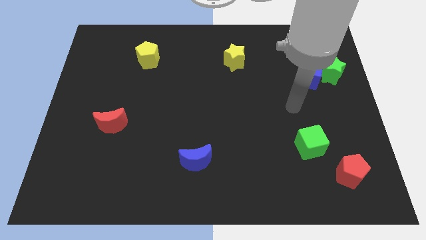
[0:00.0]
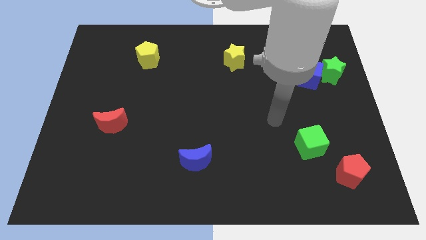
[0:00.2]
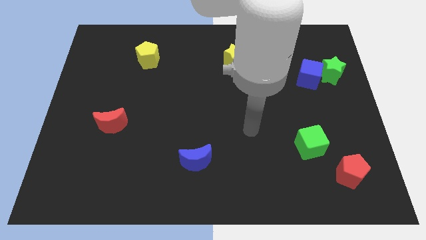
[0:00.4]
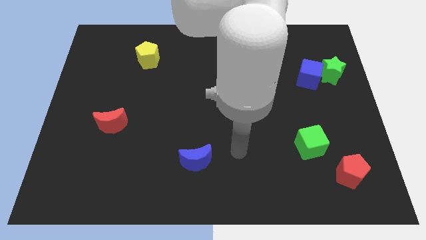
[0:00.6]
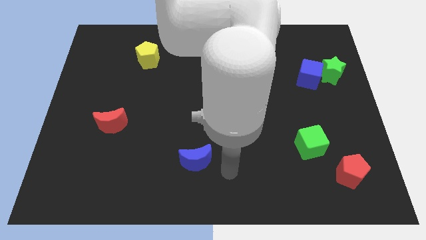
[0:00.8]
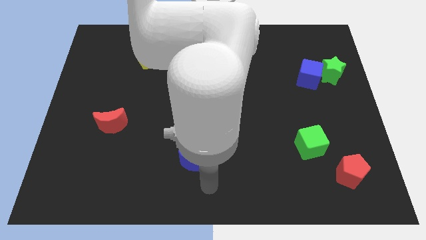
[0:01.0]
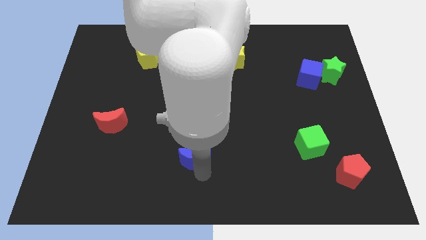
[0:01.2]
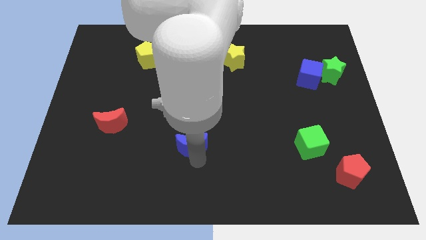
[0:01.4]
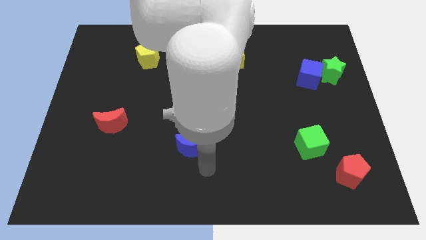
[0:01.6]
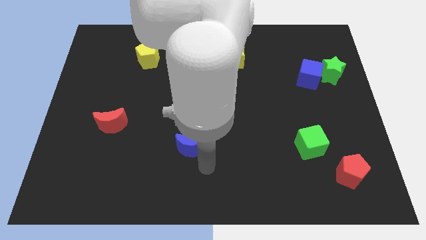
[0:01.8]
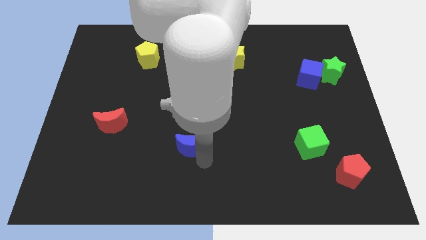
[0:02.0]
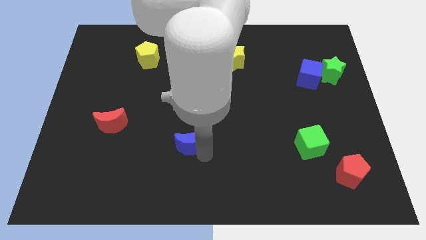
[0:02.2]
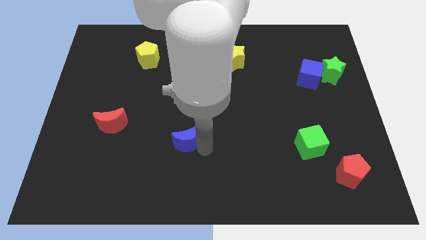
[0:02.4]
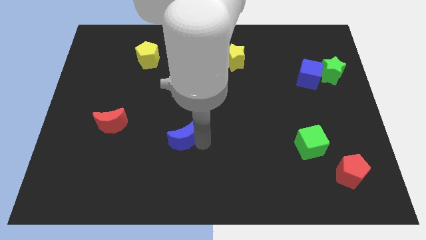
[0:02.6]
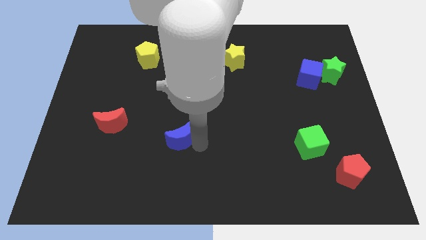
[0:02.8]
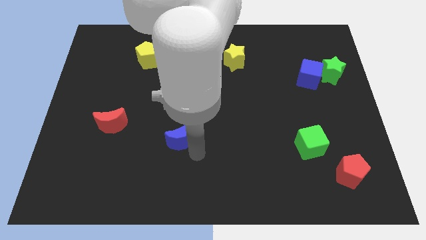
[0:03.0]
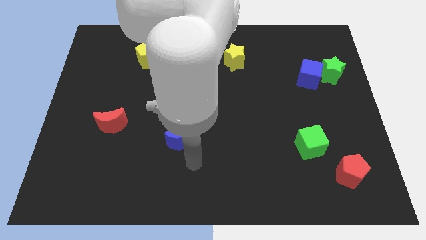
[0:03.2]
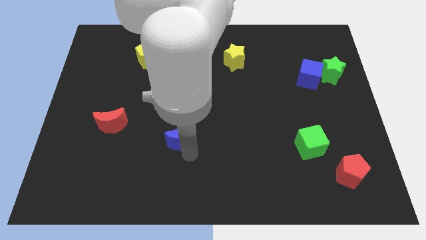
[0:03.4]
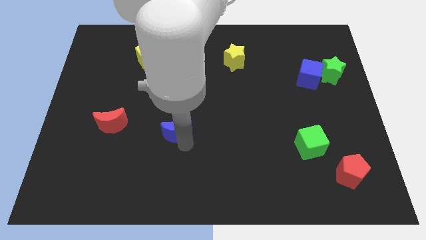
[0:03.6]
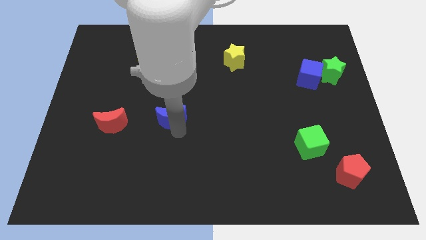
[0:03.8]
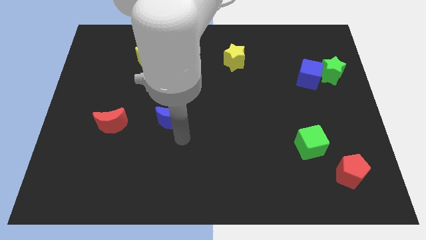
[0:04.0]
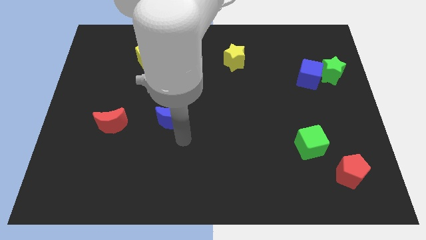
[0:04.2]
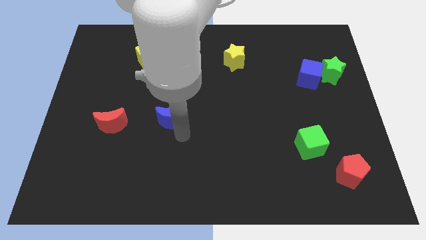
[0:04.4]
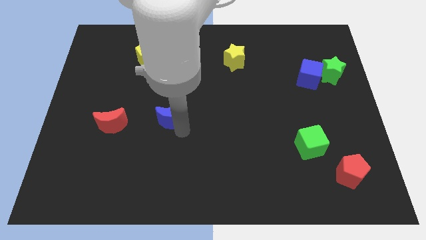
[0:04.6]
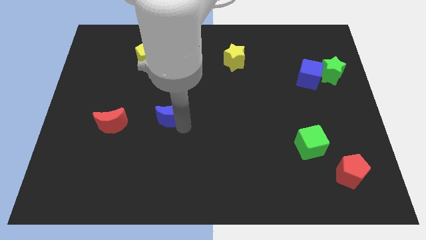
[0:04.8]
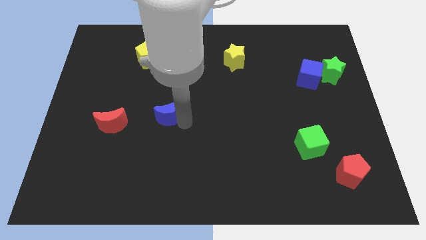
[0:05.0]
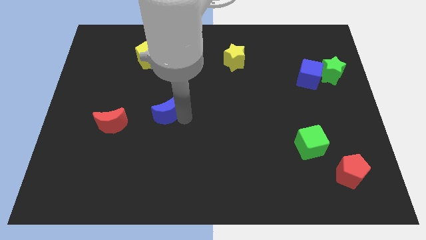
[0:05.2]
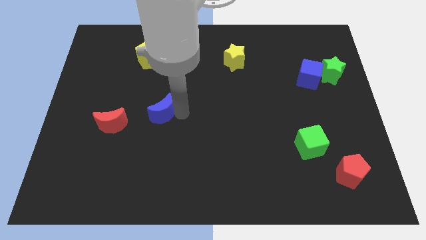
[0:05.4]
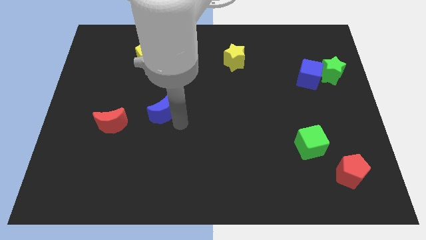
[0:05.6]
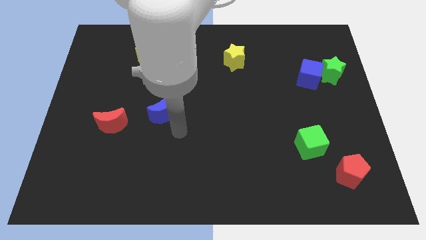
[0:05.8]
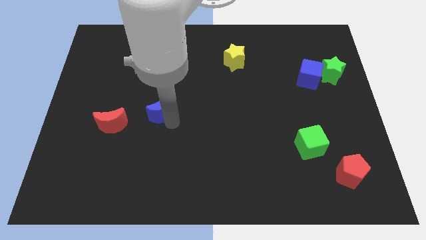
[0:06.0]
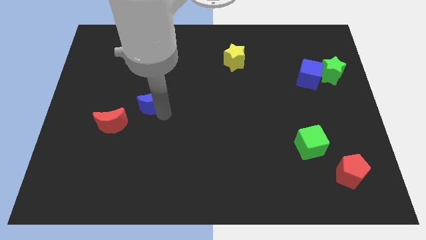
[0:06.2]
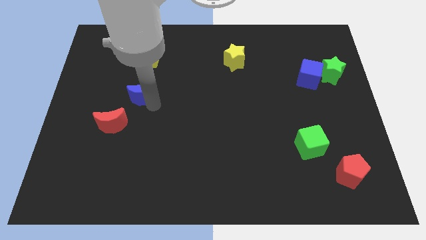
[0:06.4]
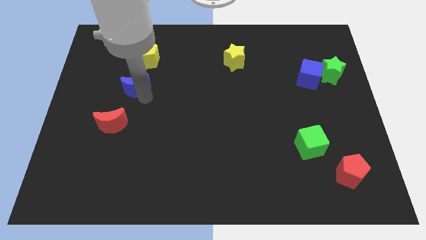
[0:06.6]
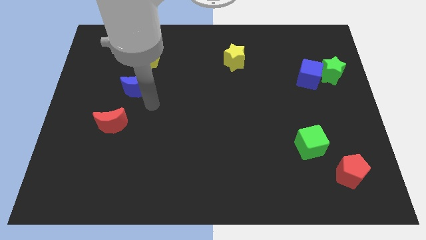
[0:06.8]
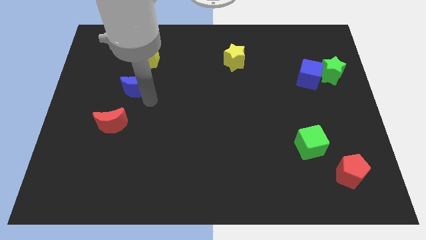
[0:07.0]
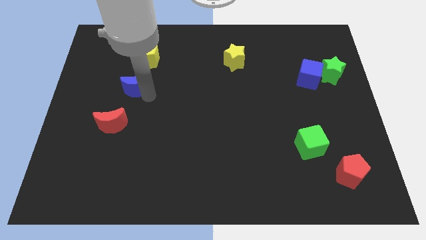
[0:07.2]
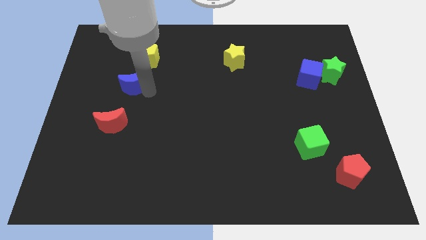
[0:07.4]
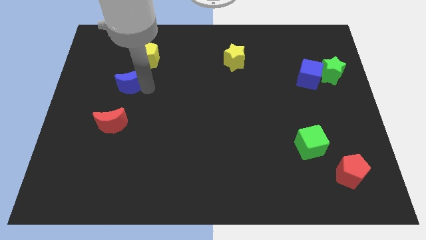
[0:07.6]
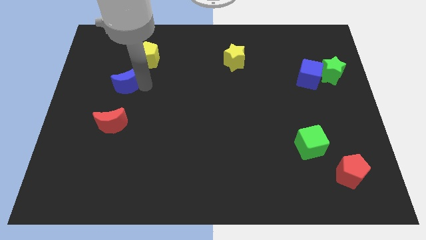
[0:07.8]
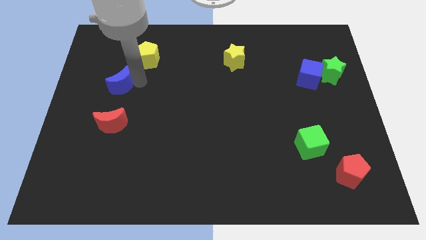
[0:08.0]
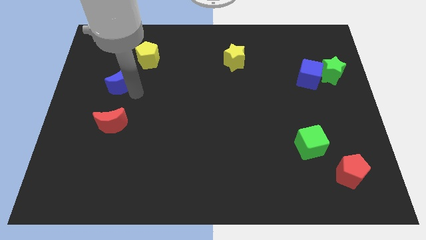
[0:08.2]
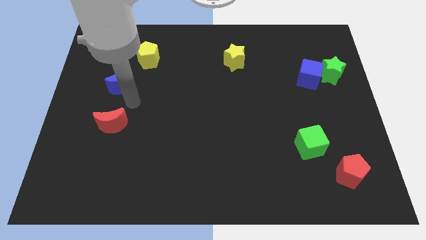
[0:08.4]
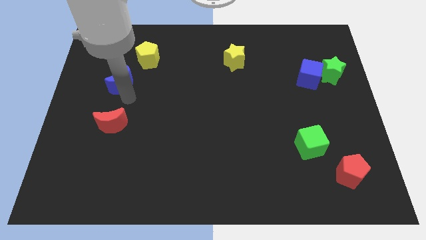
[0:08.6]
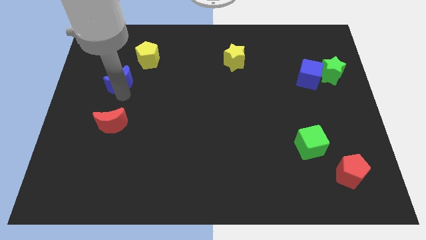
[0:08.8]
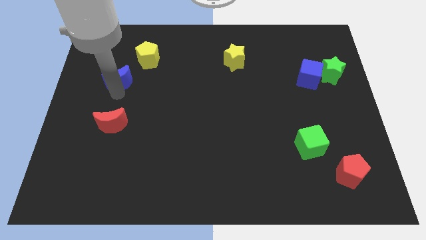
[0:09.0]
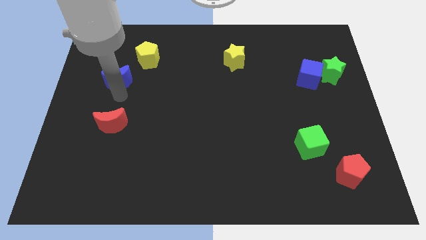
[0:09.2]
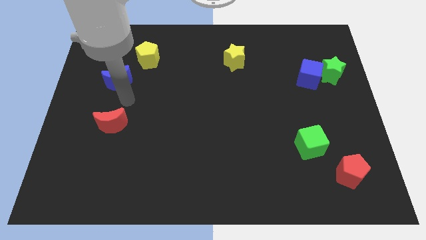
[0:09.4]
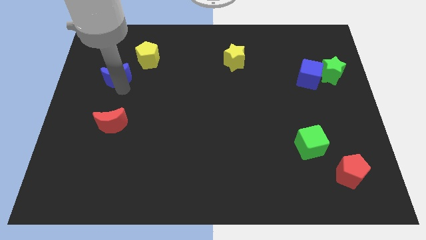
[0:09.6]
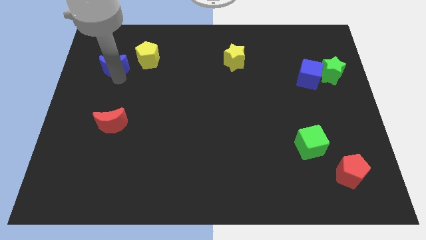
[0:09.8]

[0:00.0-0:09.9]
put the blue moon just left of the yellow pentagon
